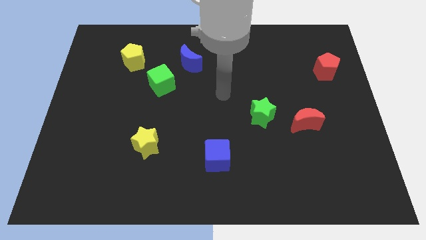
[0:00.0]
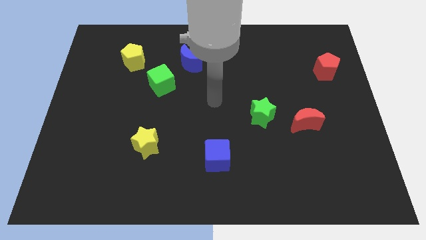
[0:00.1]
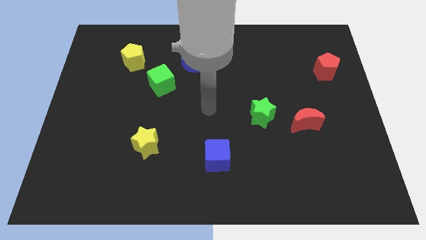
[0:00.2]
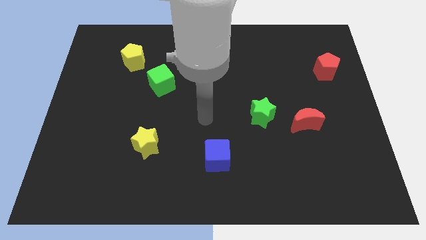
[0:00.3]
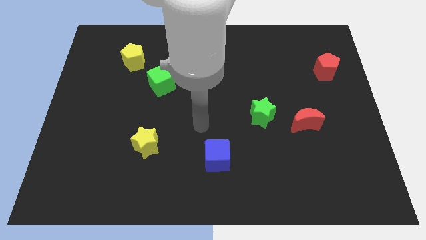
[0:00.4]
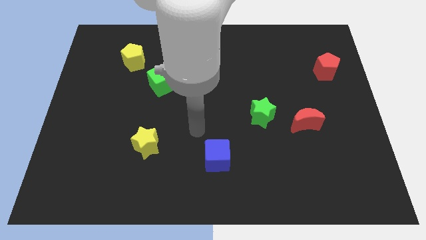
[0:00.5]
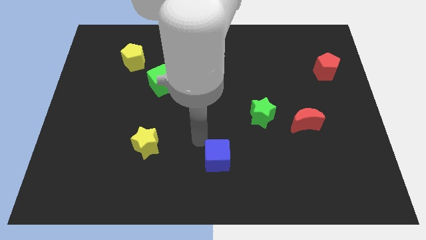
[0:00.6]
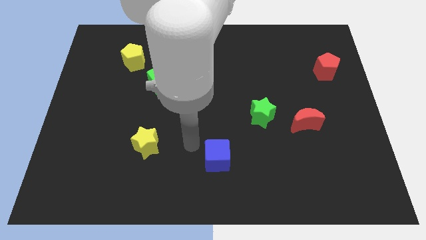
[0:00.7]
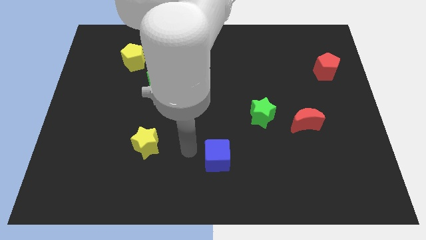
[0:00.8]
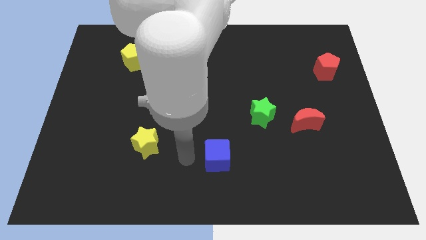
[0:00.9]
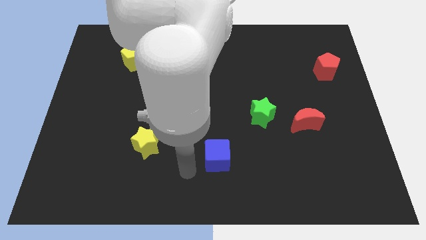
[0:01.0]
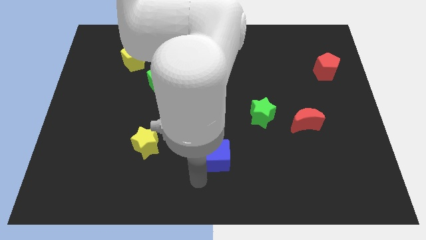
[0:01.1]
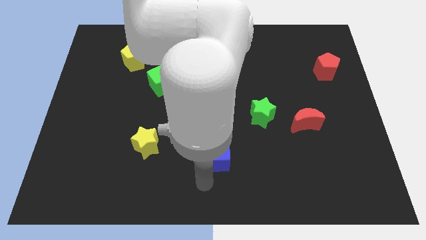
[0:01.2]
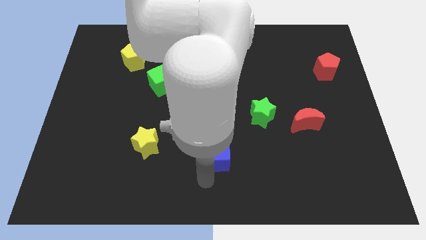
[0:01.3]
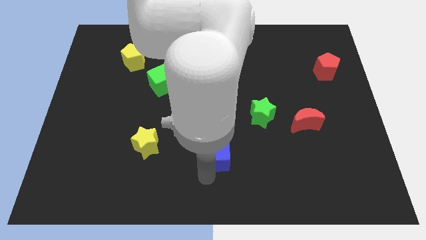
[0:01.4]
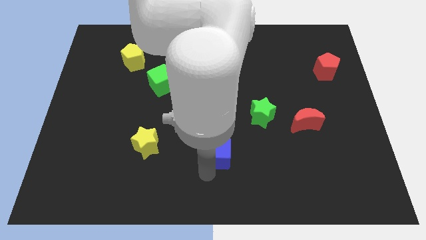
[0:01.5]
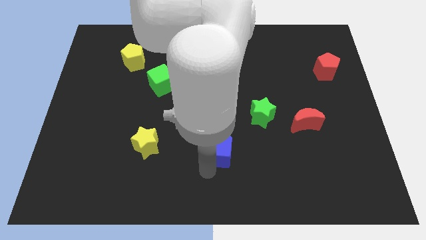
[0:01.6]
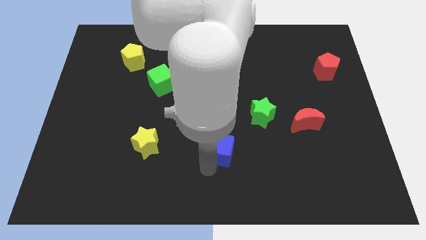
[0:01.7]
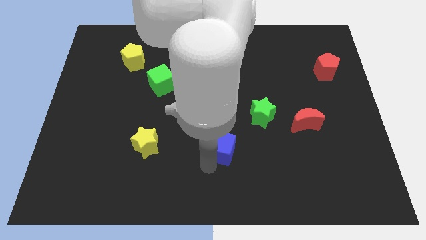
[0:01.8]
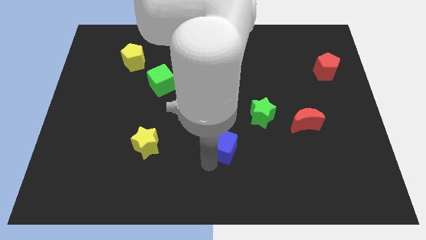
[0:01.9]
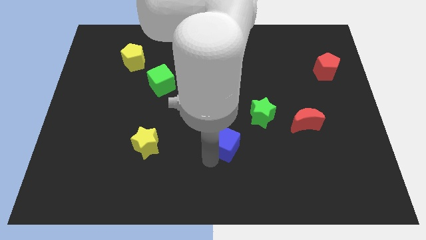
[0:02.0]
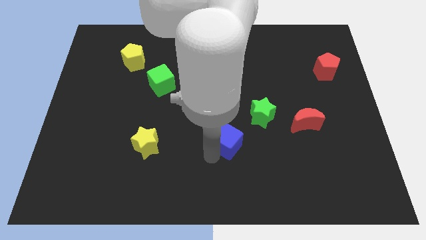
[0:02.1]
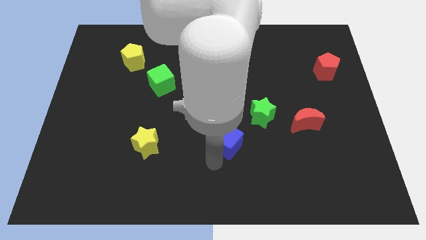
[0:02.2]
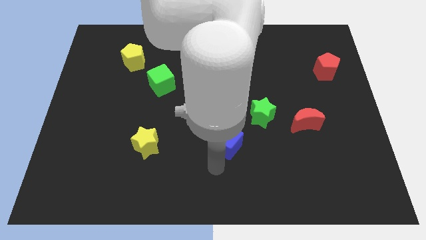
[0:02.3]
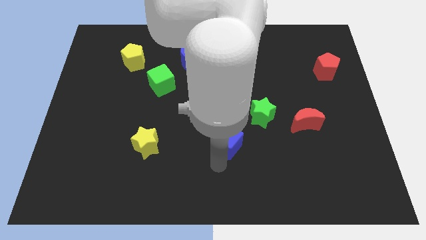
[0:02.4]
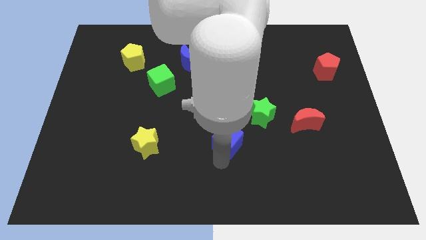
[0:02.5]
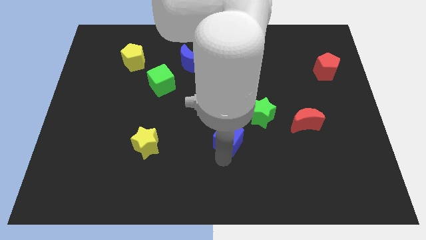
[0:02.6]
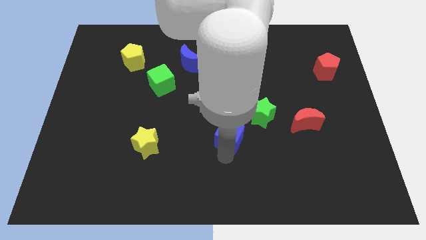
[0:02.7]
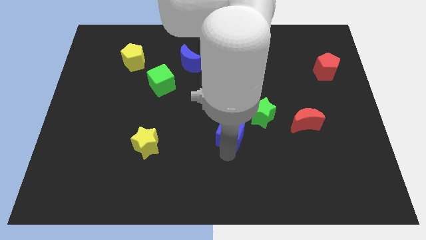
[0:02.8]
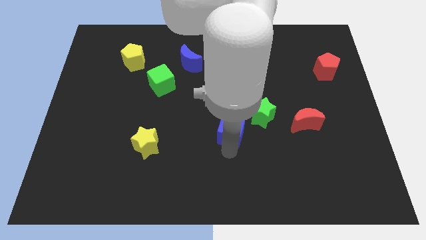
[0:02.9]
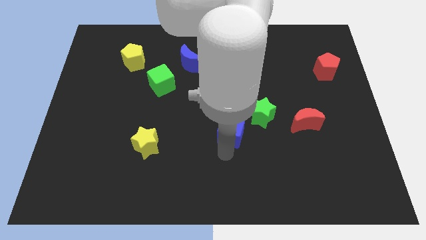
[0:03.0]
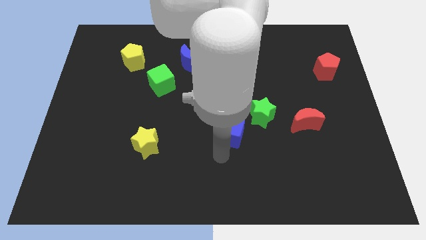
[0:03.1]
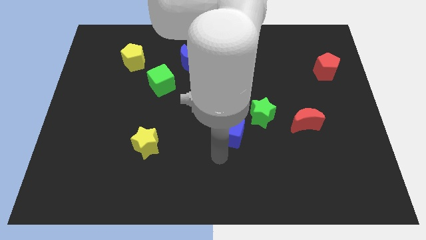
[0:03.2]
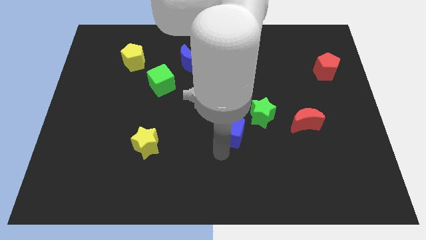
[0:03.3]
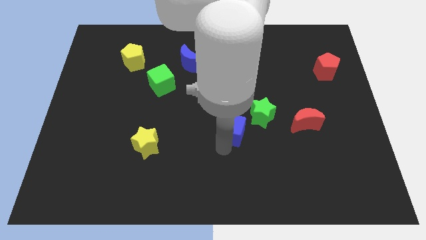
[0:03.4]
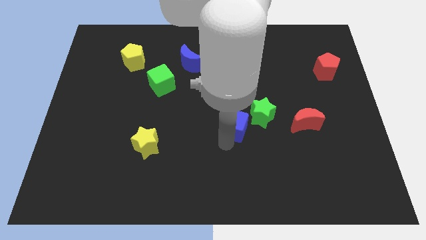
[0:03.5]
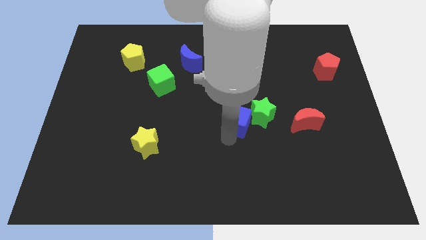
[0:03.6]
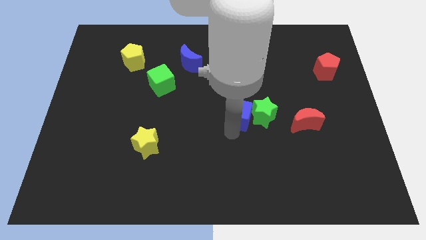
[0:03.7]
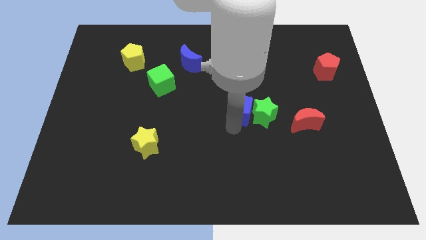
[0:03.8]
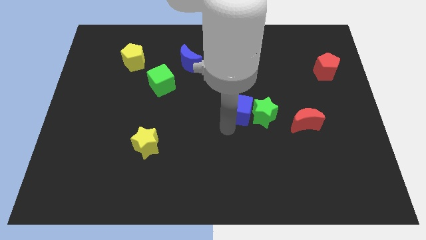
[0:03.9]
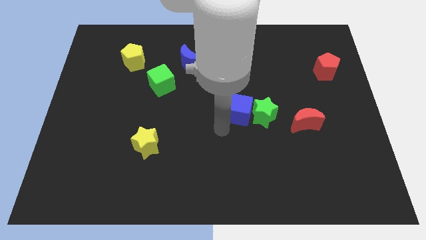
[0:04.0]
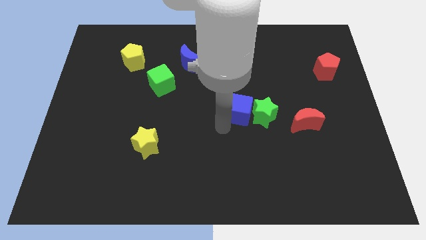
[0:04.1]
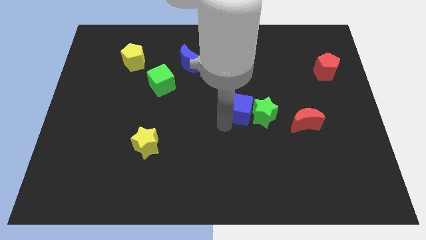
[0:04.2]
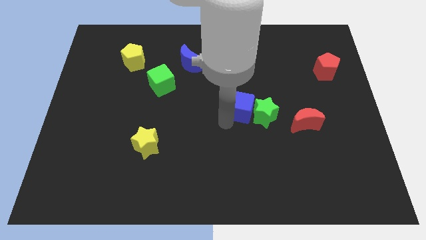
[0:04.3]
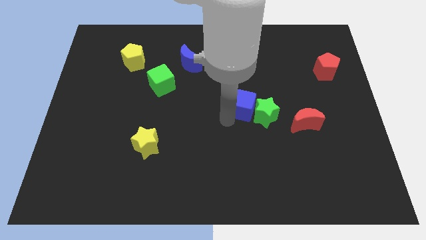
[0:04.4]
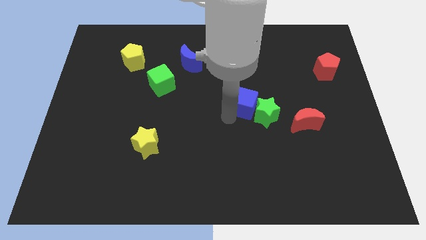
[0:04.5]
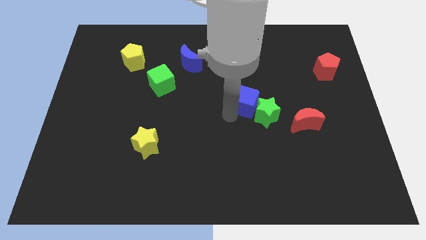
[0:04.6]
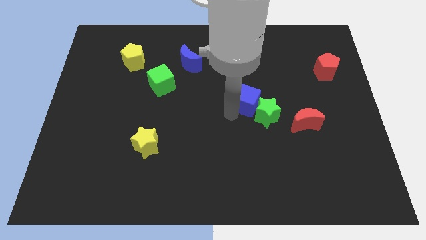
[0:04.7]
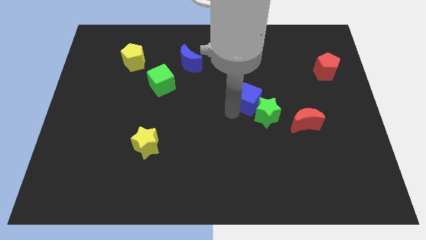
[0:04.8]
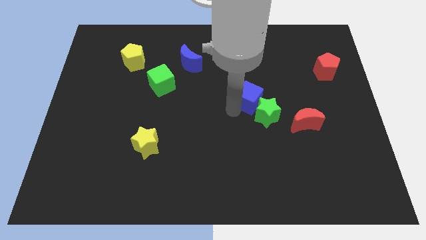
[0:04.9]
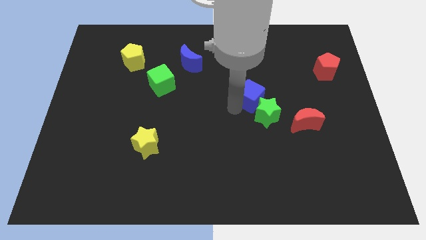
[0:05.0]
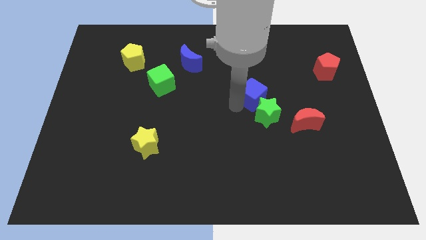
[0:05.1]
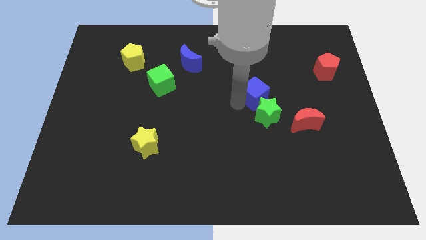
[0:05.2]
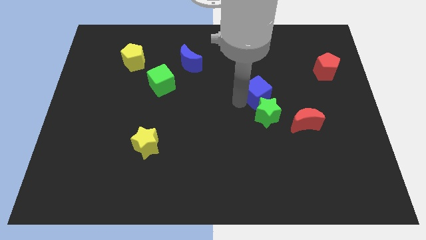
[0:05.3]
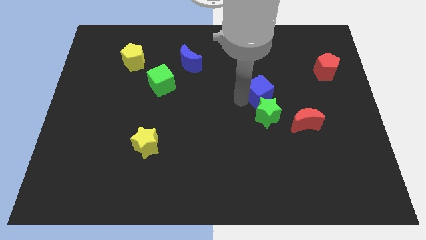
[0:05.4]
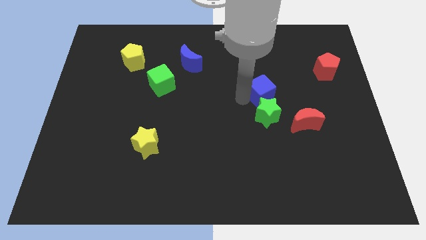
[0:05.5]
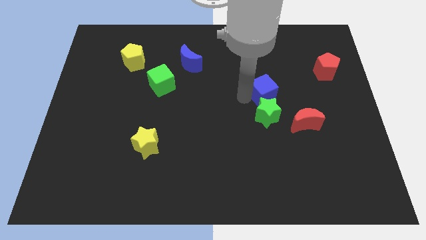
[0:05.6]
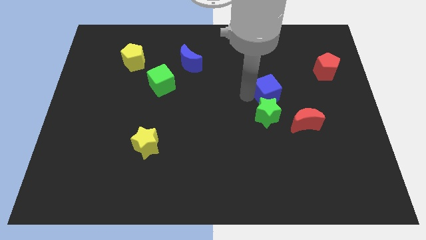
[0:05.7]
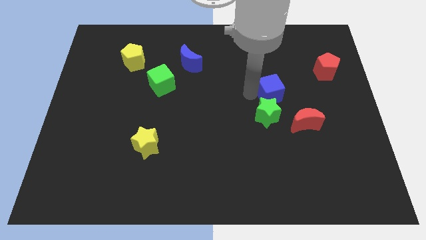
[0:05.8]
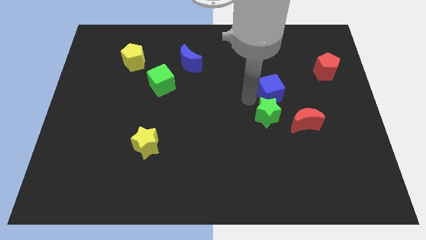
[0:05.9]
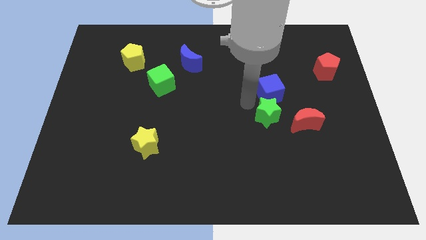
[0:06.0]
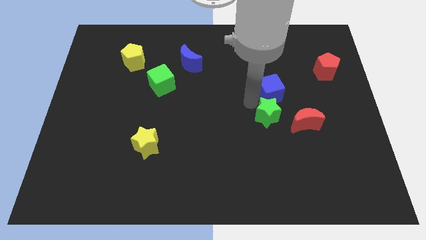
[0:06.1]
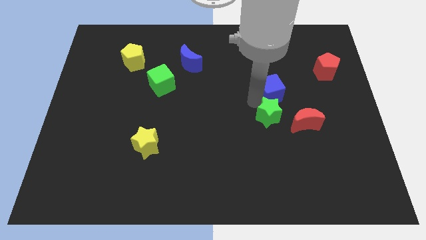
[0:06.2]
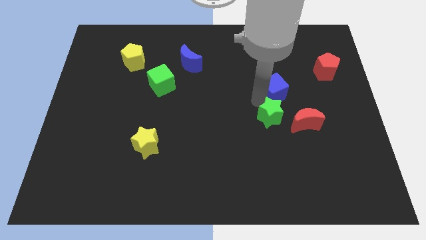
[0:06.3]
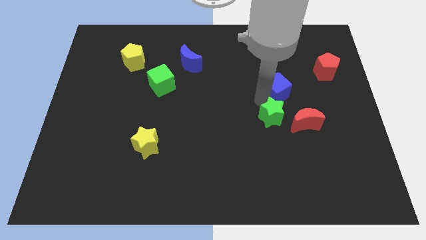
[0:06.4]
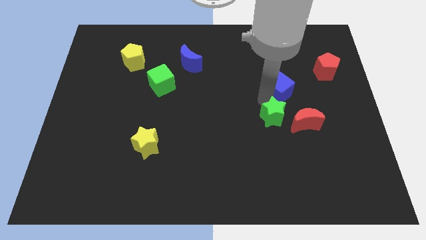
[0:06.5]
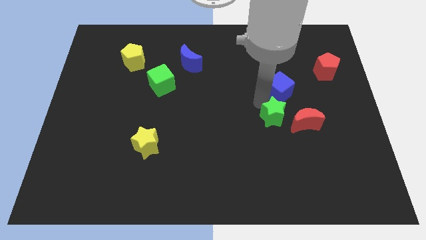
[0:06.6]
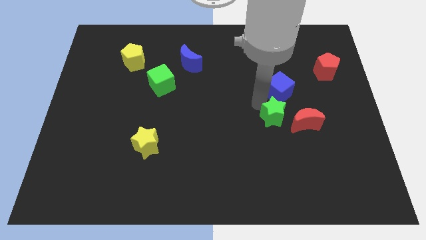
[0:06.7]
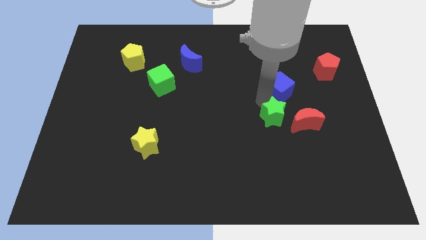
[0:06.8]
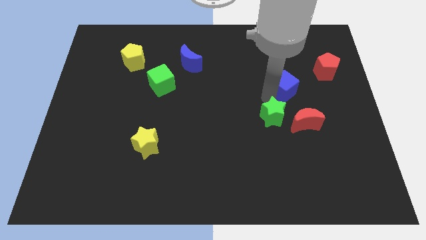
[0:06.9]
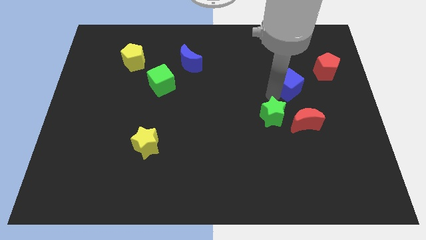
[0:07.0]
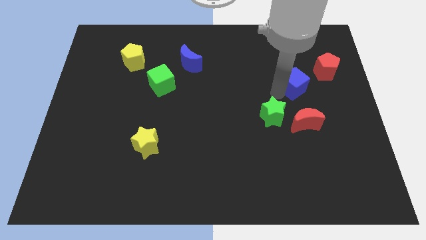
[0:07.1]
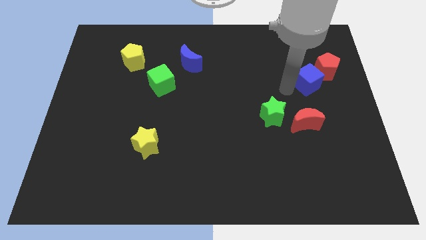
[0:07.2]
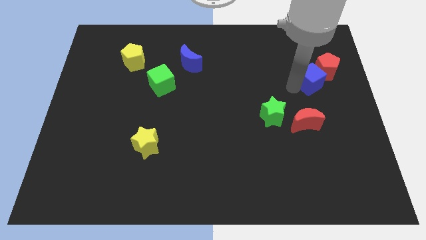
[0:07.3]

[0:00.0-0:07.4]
put the blue cube close to the red pentagon

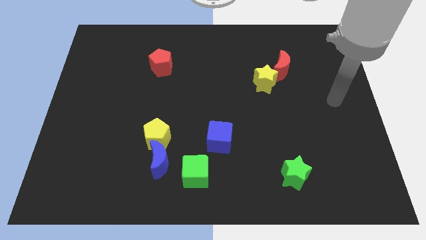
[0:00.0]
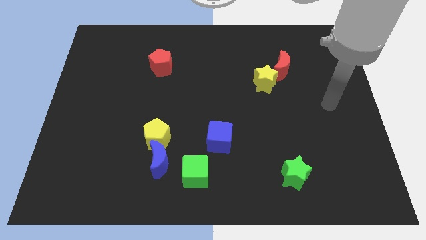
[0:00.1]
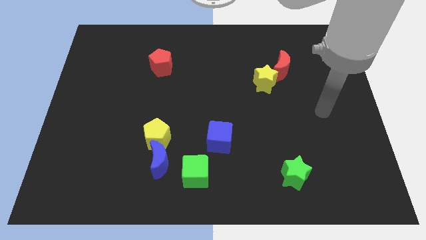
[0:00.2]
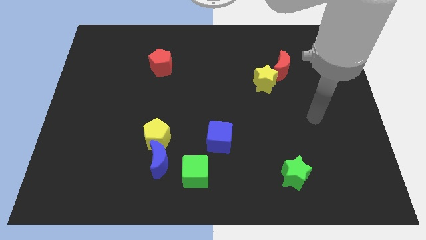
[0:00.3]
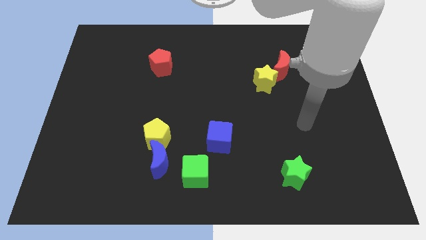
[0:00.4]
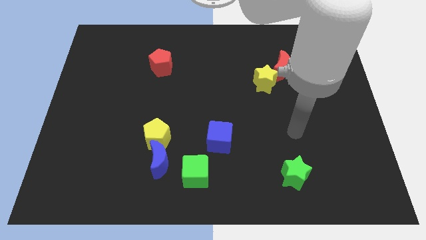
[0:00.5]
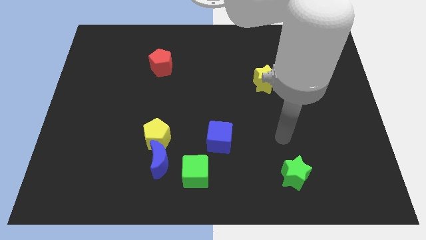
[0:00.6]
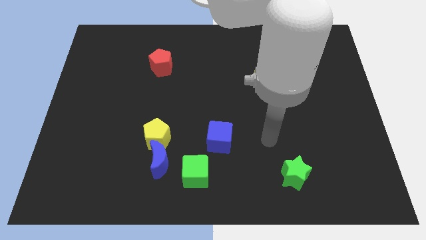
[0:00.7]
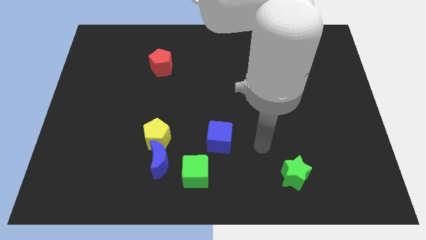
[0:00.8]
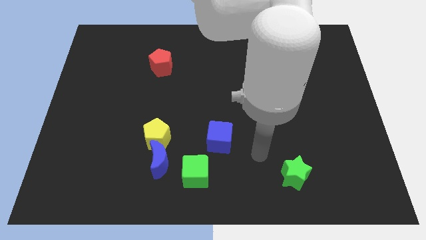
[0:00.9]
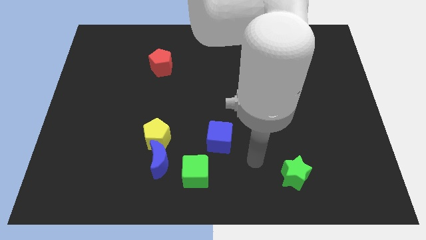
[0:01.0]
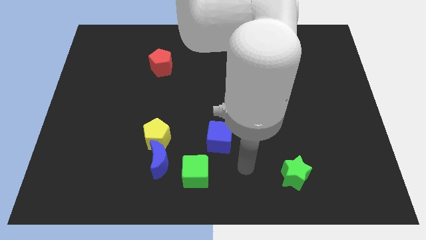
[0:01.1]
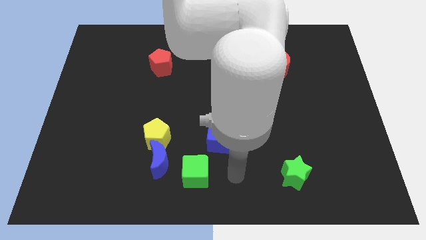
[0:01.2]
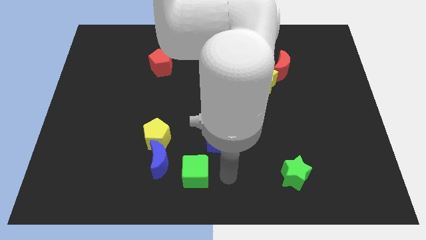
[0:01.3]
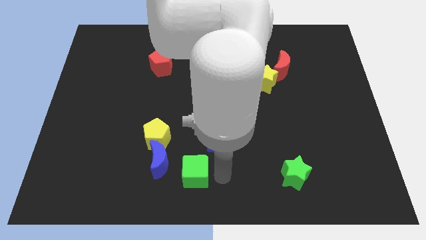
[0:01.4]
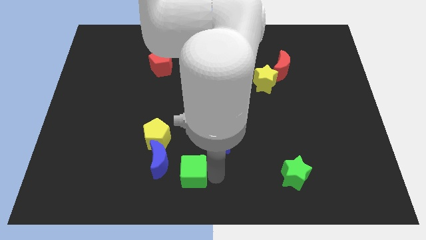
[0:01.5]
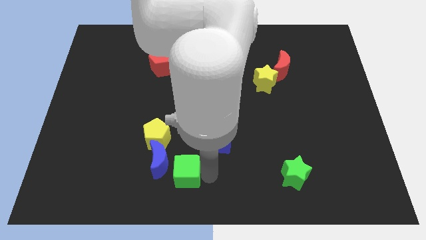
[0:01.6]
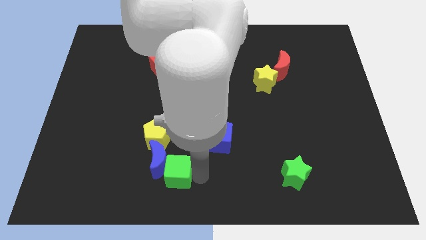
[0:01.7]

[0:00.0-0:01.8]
slide the green cube next to the blue moon
